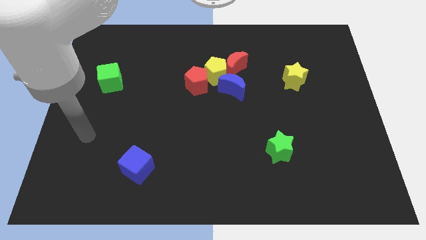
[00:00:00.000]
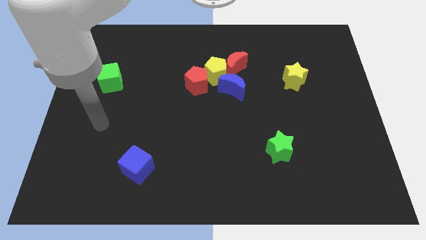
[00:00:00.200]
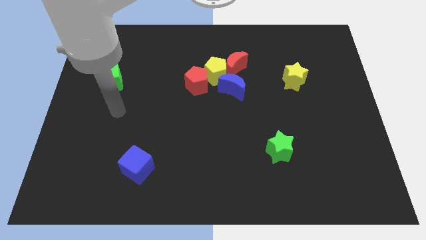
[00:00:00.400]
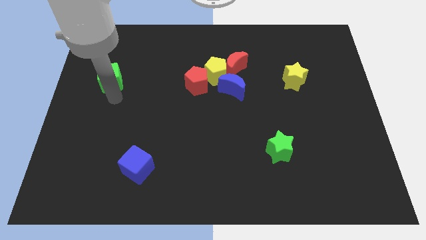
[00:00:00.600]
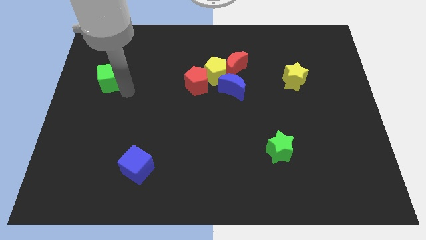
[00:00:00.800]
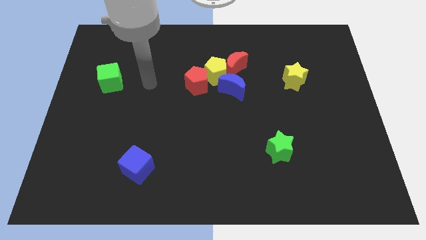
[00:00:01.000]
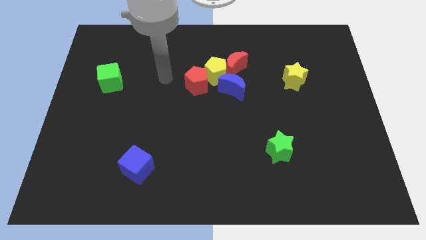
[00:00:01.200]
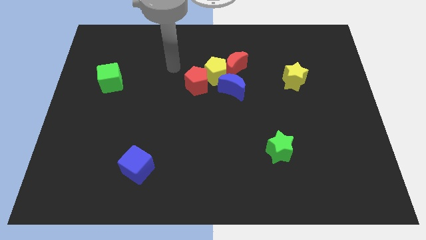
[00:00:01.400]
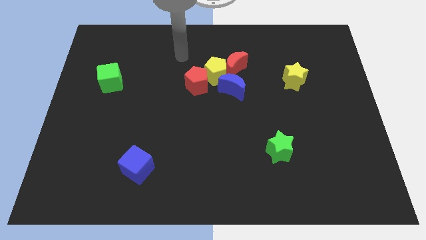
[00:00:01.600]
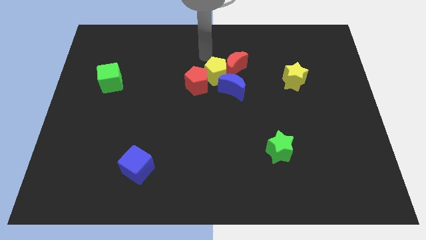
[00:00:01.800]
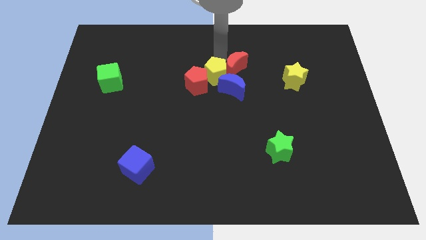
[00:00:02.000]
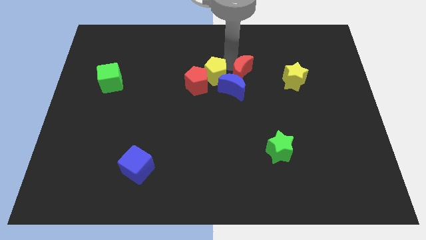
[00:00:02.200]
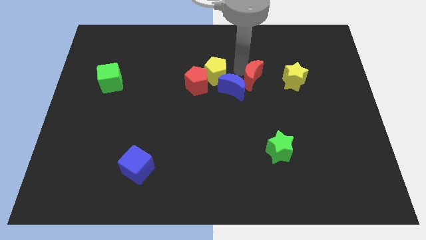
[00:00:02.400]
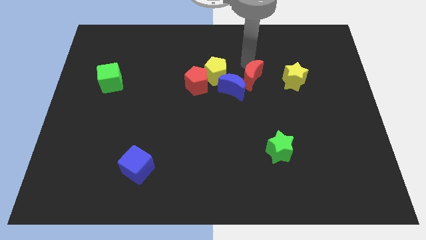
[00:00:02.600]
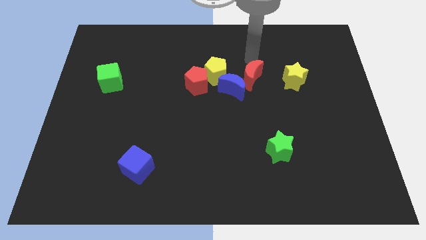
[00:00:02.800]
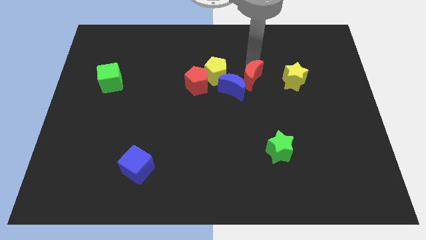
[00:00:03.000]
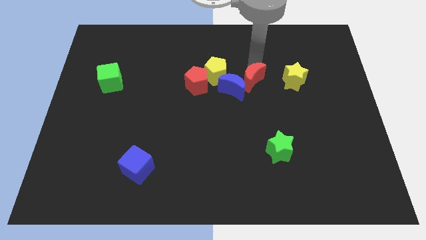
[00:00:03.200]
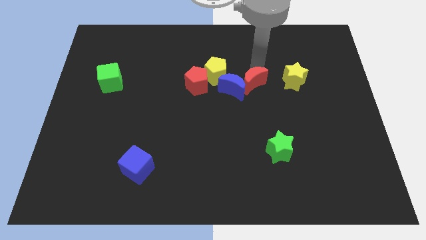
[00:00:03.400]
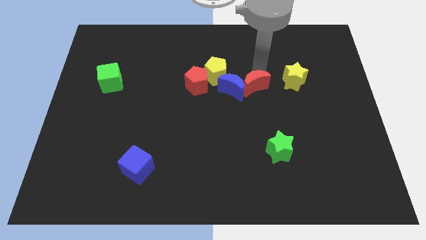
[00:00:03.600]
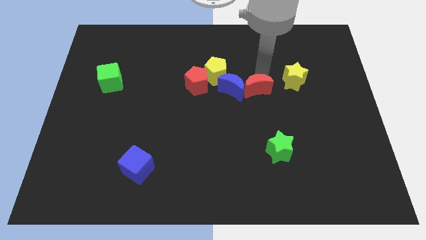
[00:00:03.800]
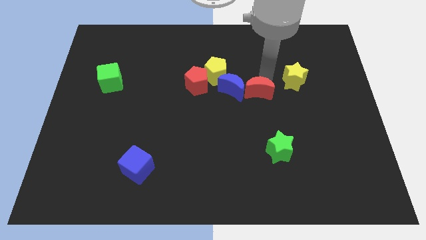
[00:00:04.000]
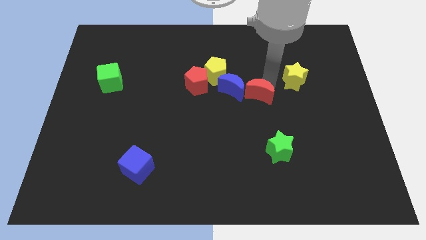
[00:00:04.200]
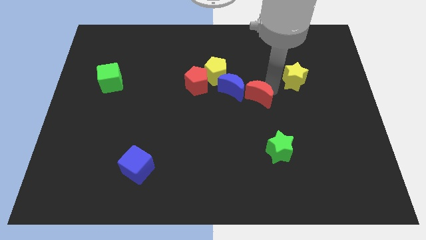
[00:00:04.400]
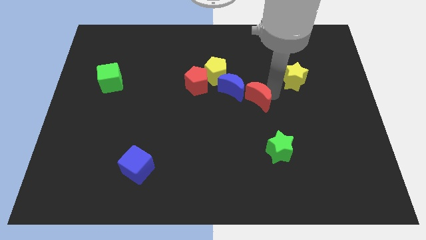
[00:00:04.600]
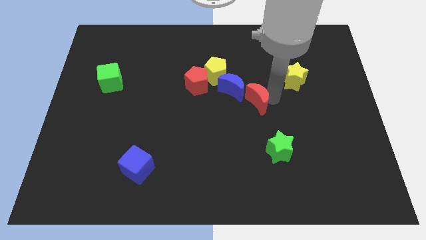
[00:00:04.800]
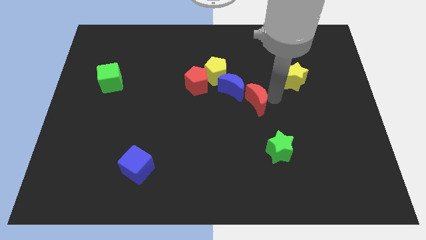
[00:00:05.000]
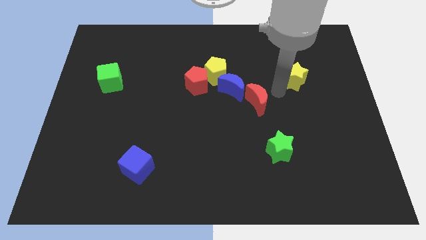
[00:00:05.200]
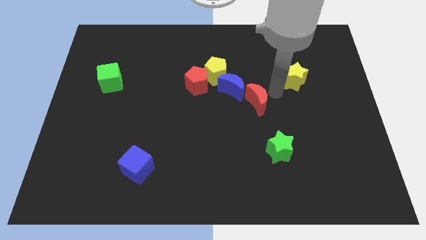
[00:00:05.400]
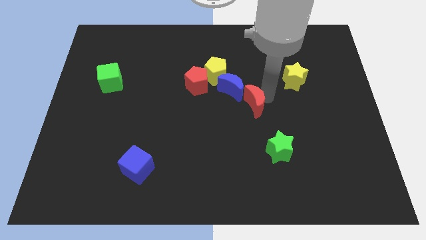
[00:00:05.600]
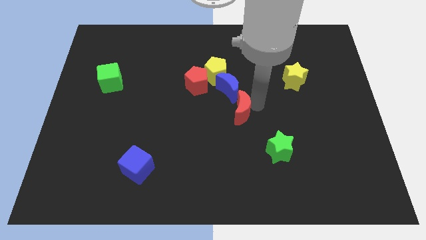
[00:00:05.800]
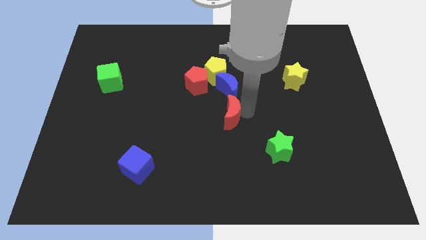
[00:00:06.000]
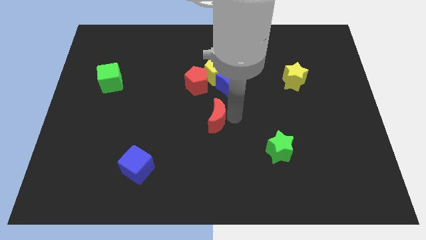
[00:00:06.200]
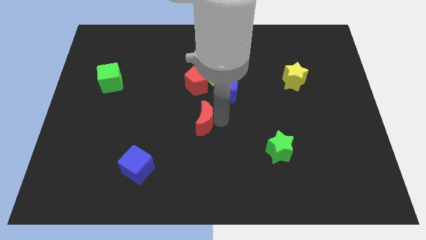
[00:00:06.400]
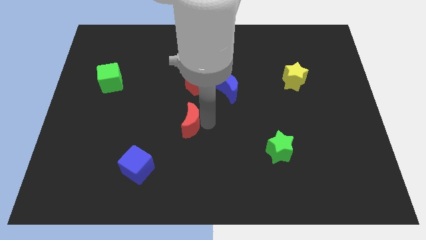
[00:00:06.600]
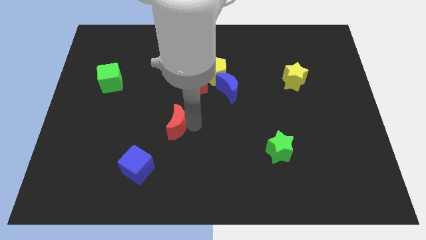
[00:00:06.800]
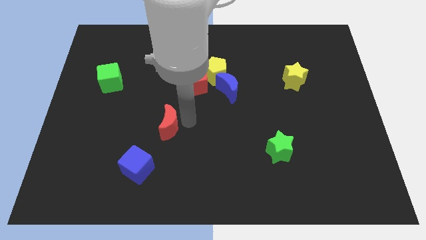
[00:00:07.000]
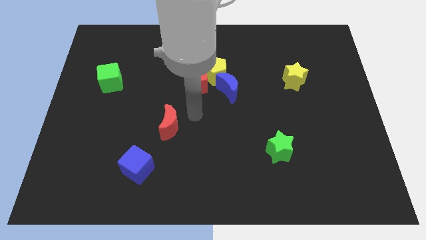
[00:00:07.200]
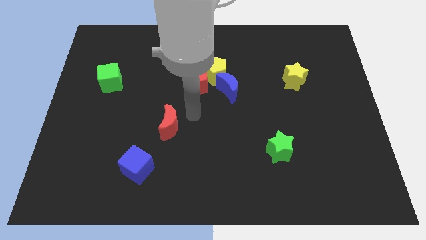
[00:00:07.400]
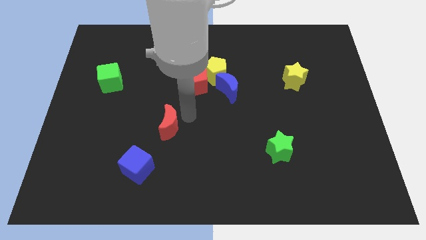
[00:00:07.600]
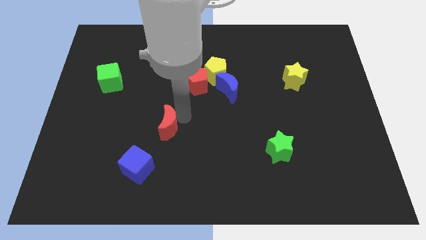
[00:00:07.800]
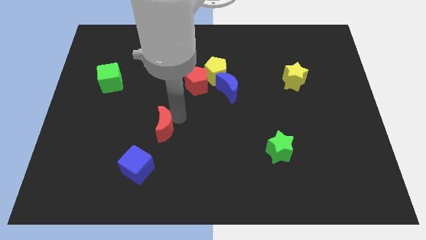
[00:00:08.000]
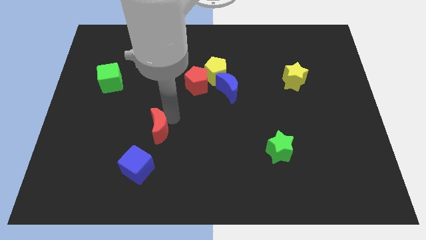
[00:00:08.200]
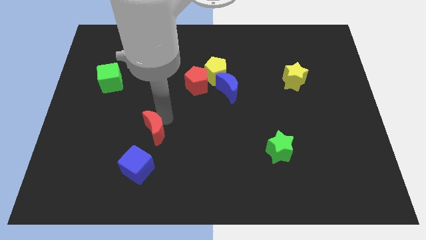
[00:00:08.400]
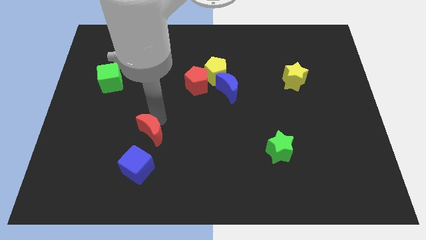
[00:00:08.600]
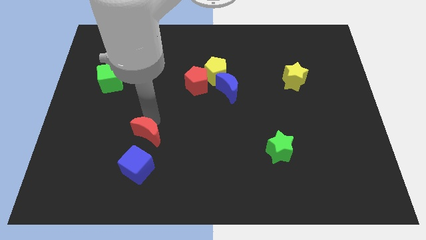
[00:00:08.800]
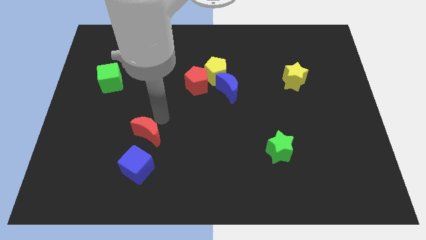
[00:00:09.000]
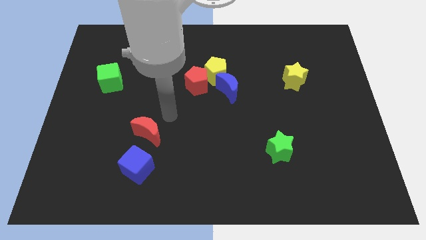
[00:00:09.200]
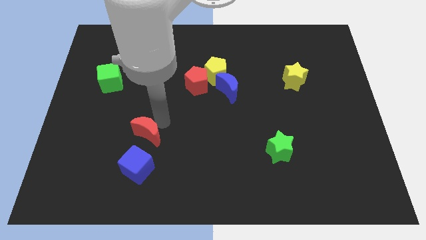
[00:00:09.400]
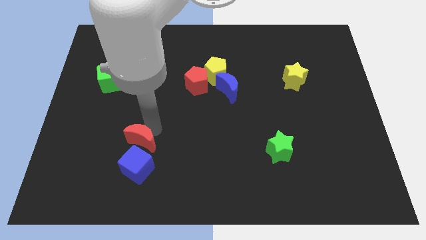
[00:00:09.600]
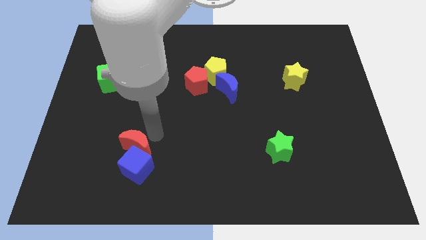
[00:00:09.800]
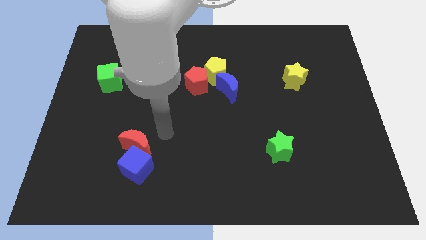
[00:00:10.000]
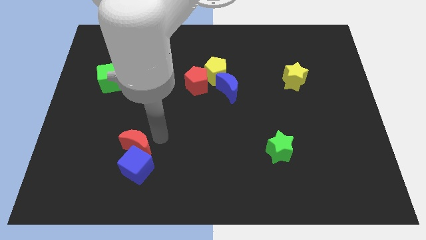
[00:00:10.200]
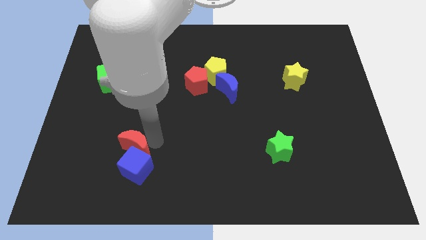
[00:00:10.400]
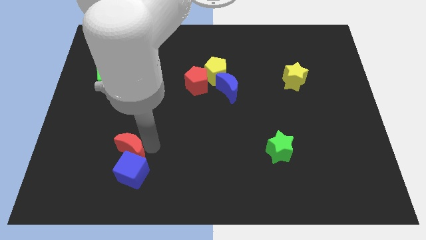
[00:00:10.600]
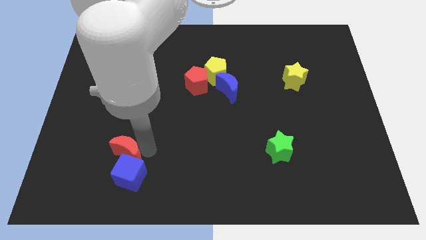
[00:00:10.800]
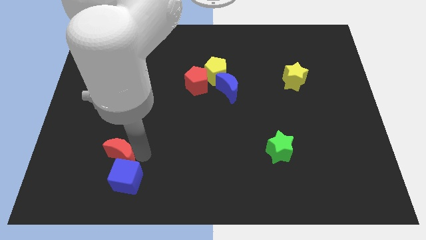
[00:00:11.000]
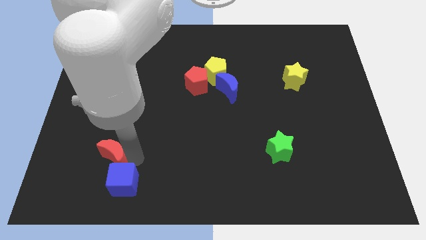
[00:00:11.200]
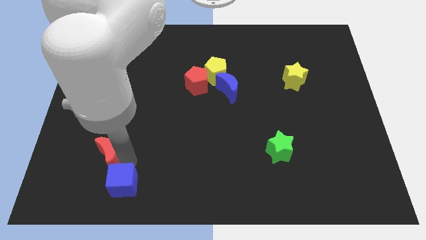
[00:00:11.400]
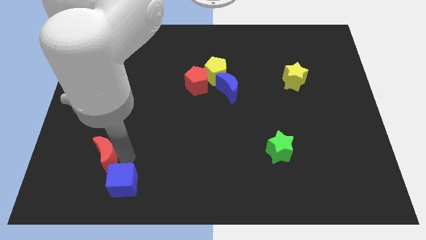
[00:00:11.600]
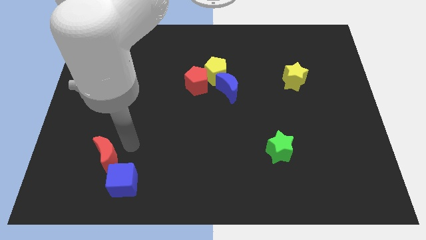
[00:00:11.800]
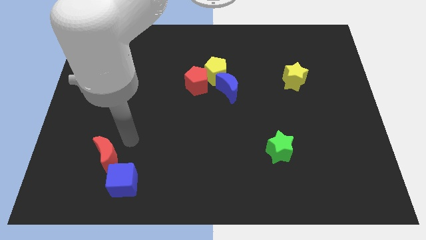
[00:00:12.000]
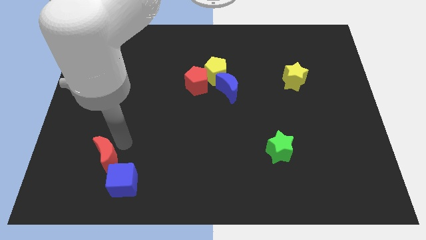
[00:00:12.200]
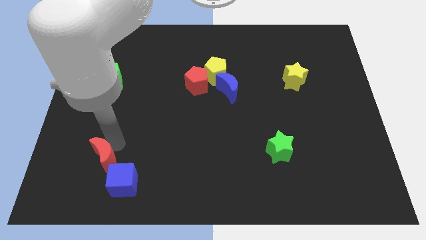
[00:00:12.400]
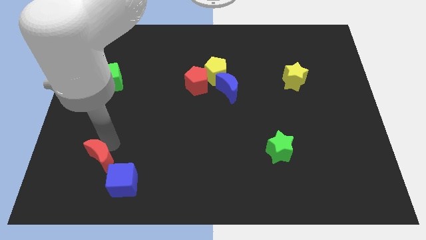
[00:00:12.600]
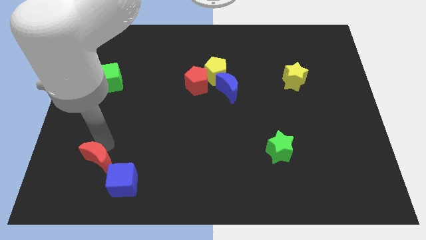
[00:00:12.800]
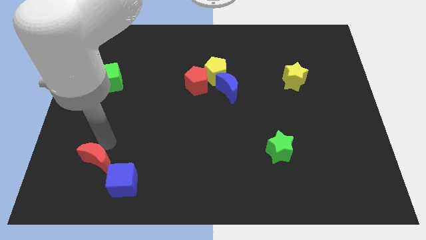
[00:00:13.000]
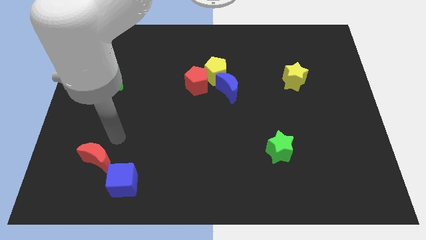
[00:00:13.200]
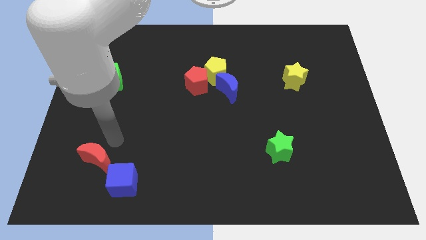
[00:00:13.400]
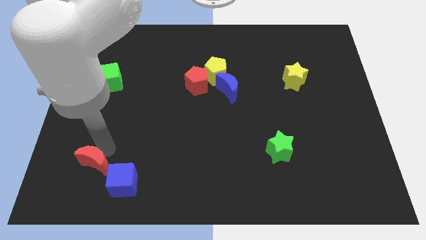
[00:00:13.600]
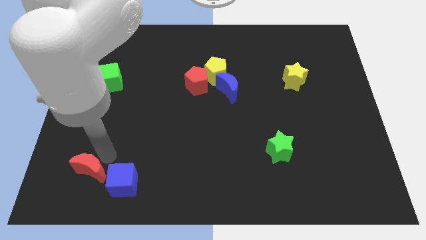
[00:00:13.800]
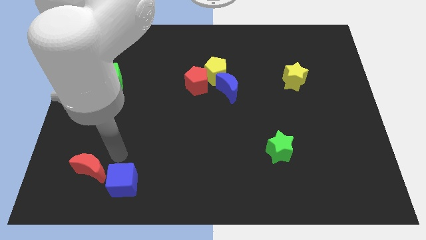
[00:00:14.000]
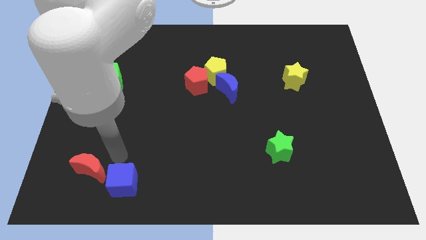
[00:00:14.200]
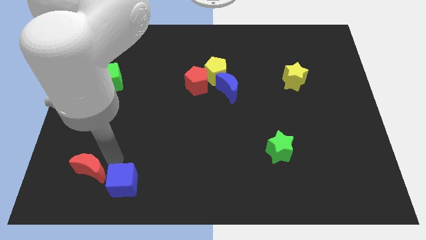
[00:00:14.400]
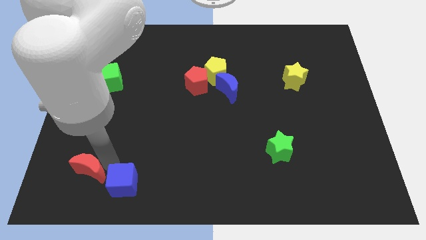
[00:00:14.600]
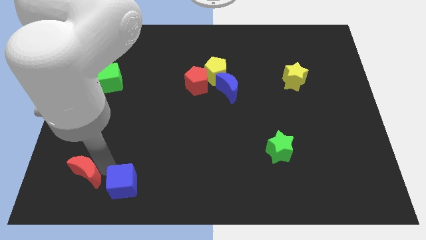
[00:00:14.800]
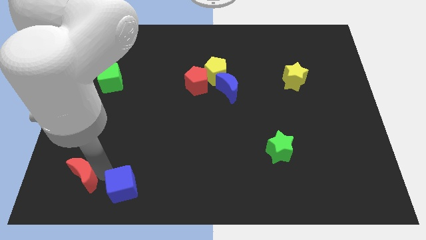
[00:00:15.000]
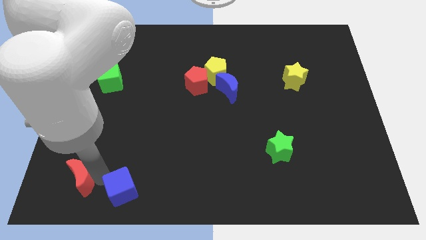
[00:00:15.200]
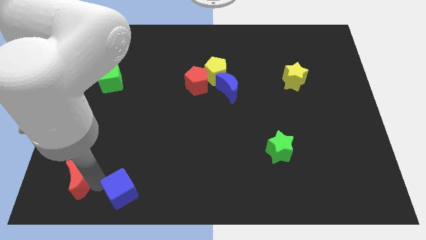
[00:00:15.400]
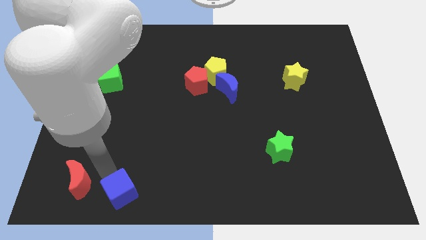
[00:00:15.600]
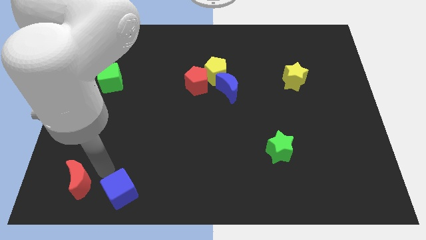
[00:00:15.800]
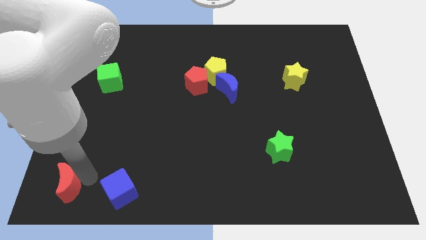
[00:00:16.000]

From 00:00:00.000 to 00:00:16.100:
push the red moon to the bottom left corner
